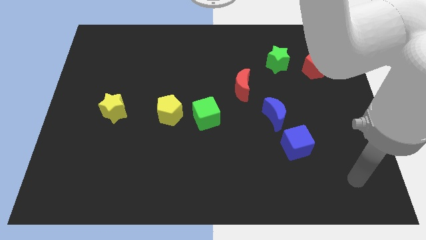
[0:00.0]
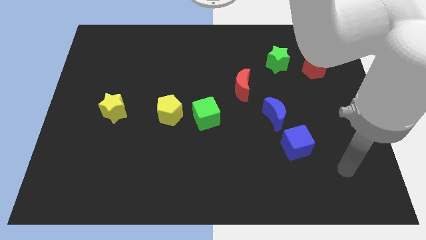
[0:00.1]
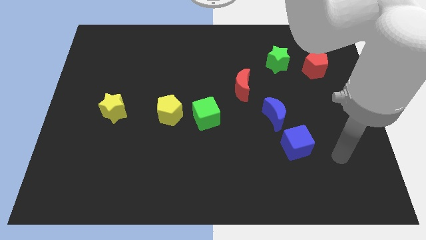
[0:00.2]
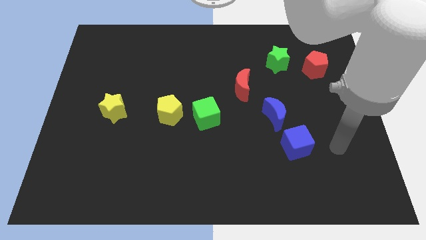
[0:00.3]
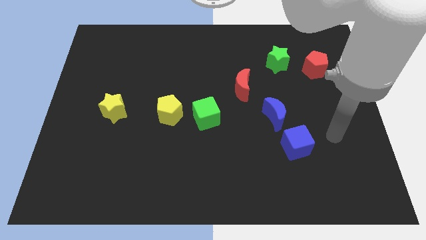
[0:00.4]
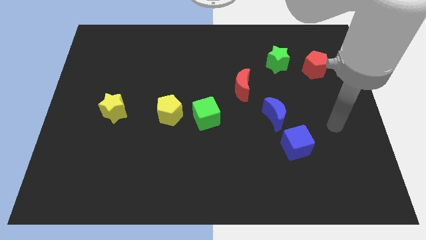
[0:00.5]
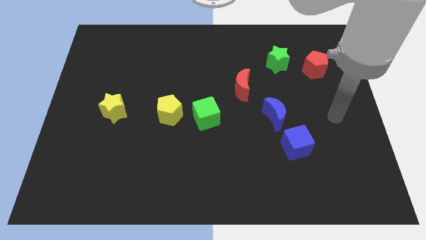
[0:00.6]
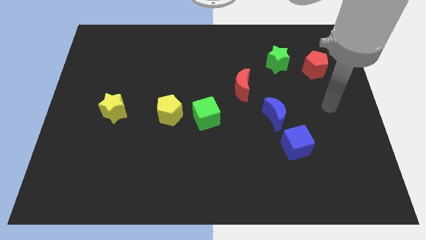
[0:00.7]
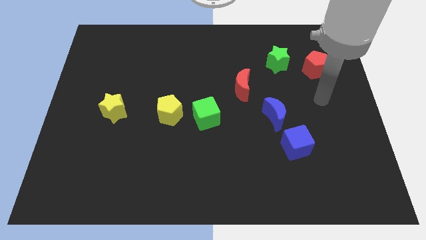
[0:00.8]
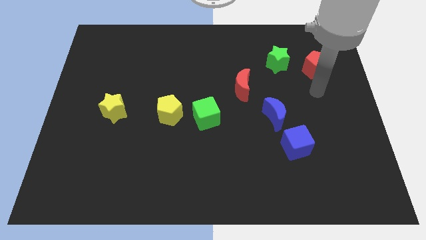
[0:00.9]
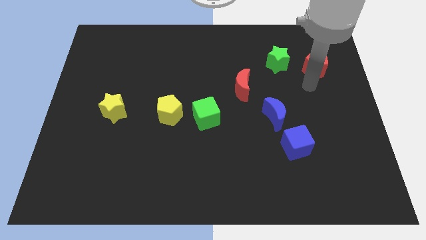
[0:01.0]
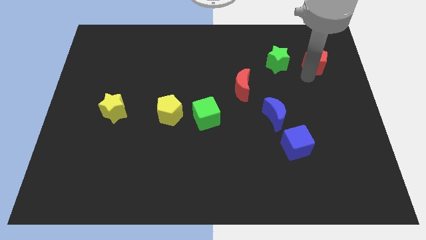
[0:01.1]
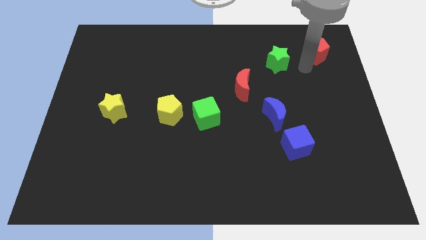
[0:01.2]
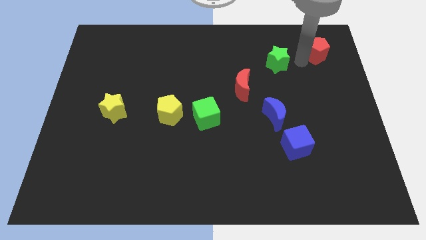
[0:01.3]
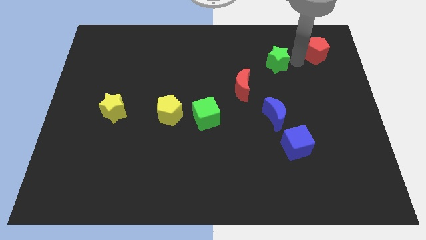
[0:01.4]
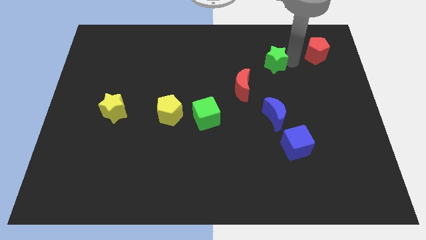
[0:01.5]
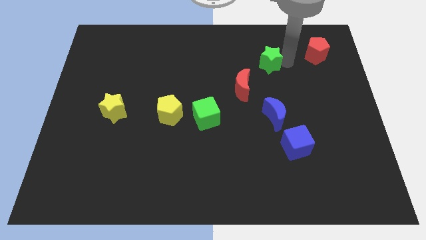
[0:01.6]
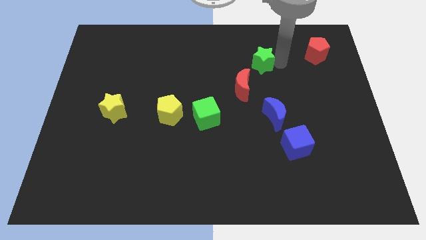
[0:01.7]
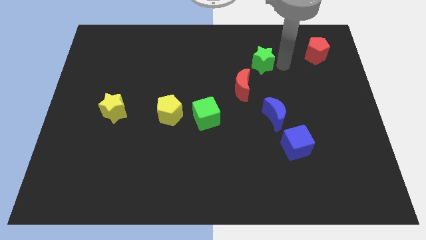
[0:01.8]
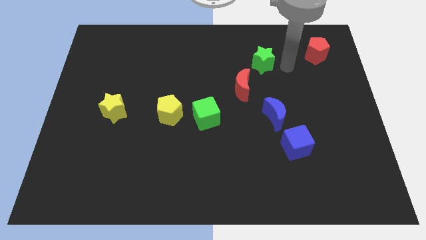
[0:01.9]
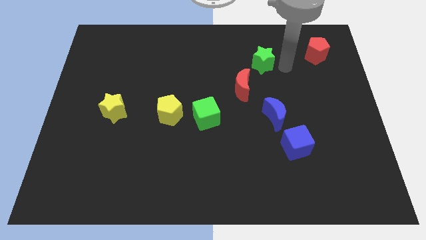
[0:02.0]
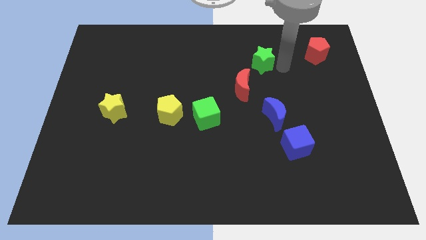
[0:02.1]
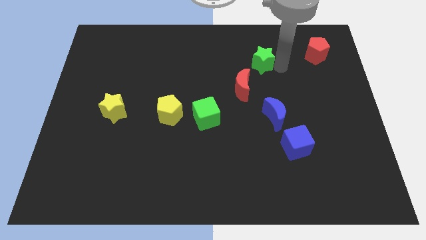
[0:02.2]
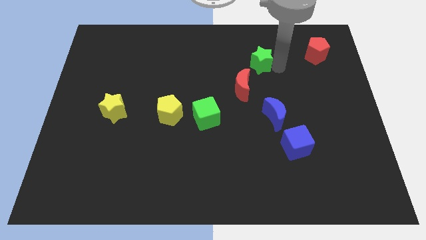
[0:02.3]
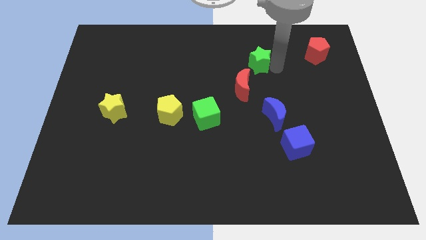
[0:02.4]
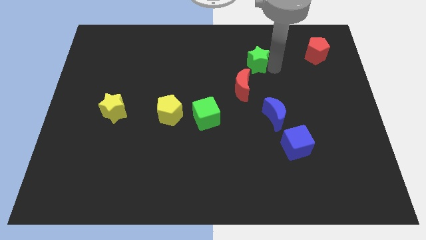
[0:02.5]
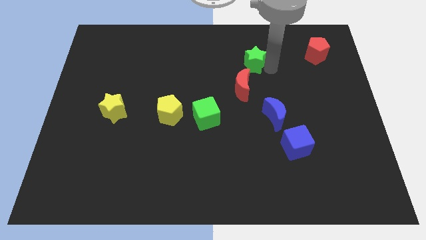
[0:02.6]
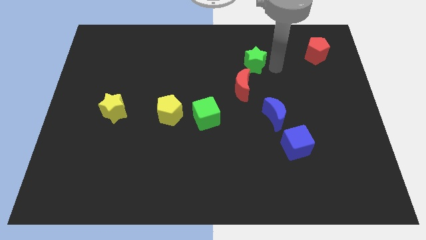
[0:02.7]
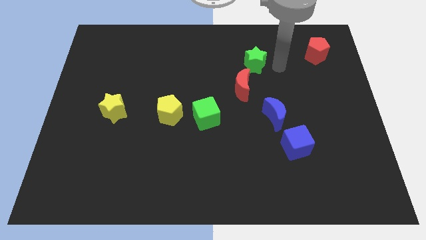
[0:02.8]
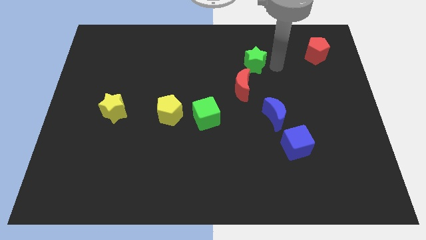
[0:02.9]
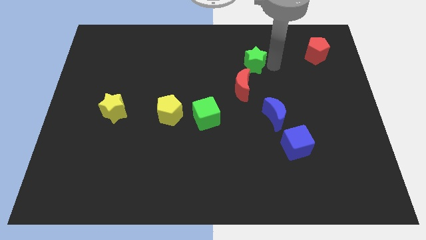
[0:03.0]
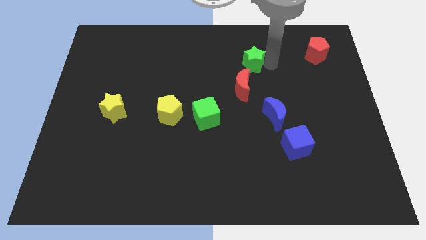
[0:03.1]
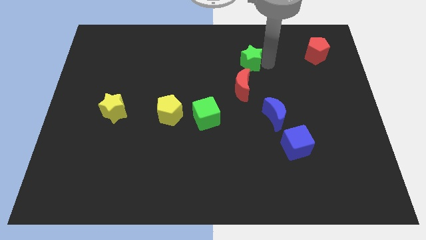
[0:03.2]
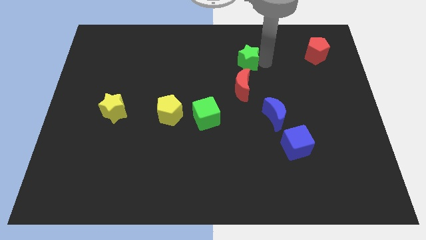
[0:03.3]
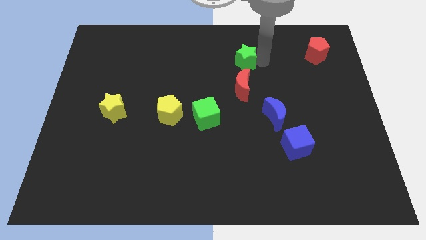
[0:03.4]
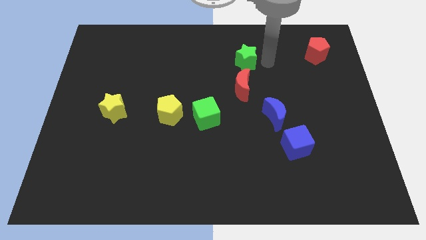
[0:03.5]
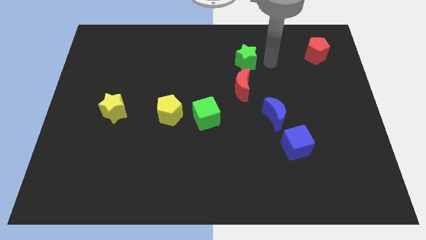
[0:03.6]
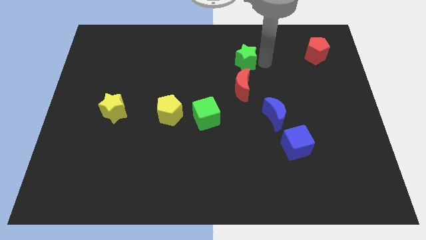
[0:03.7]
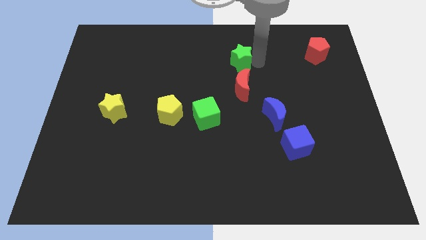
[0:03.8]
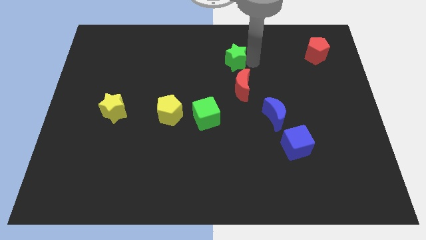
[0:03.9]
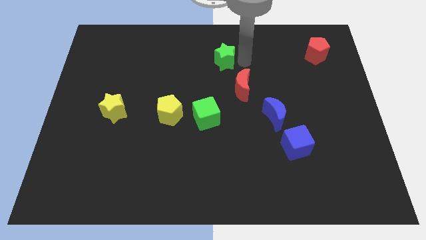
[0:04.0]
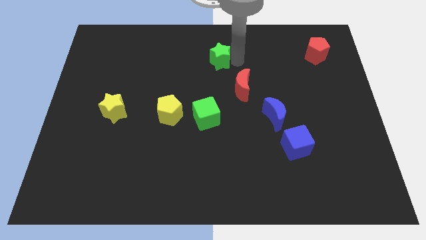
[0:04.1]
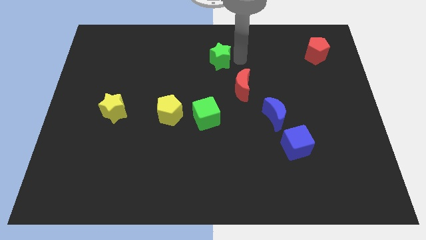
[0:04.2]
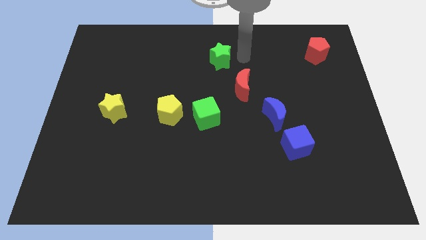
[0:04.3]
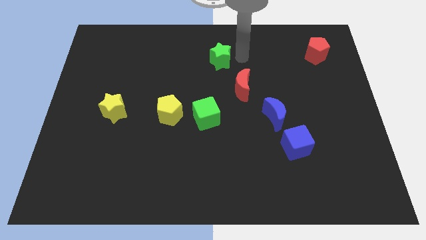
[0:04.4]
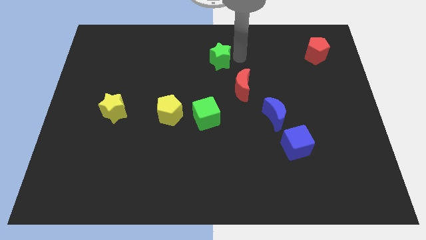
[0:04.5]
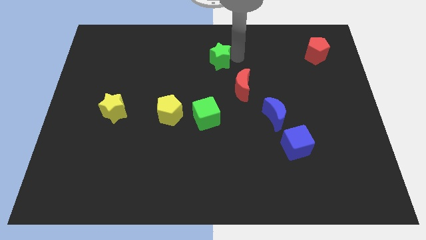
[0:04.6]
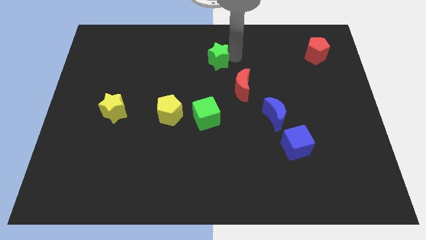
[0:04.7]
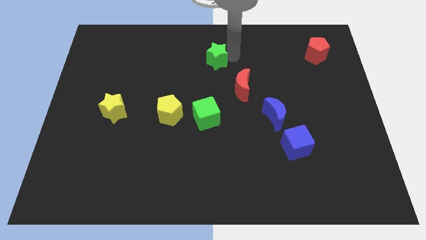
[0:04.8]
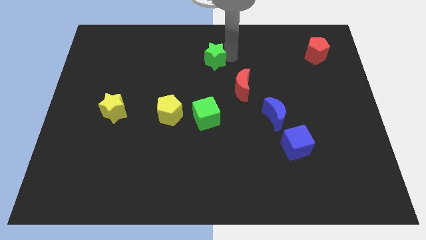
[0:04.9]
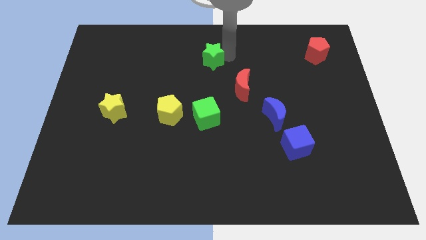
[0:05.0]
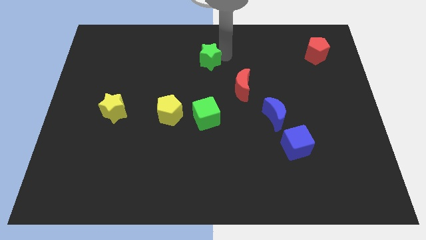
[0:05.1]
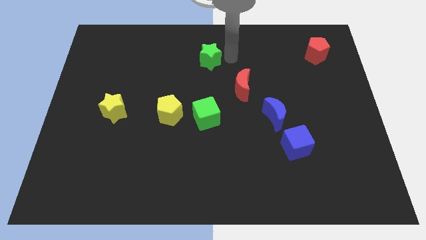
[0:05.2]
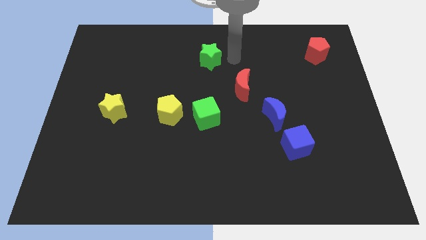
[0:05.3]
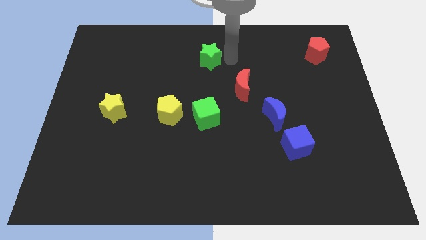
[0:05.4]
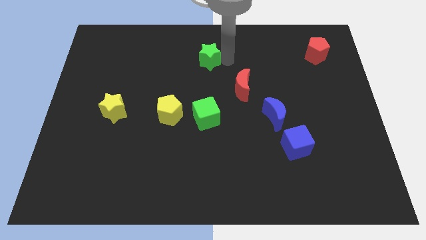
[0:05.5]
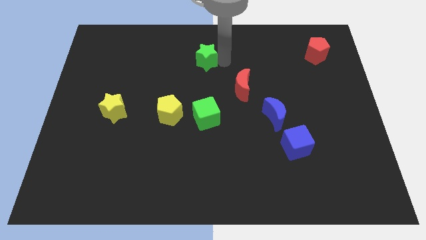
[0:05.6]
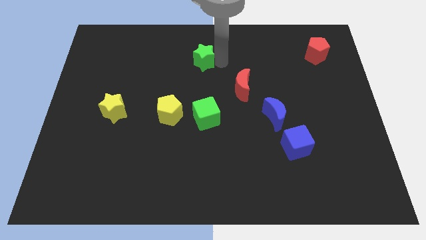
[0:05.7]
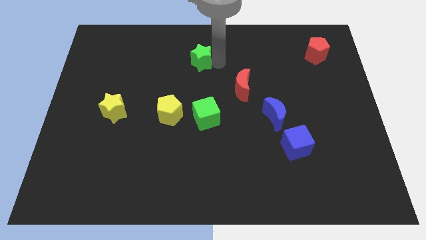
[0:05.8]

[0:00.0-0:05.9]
move the green star left

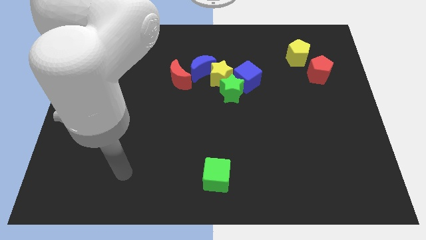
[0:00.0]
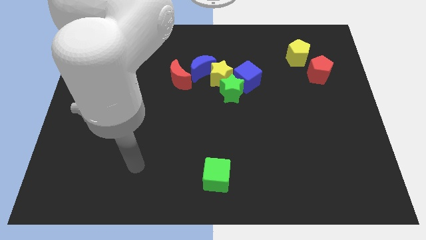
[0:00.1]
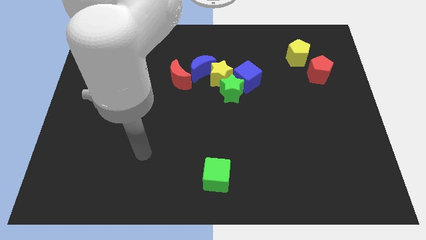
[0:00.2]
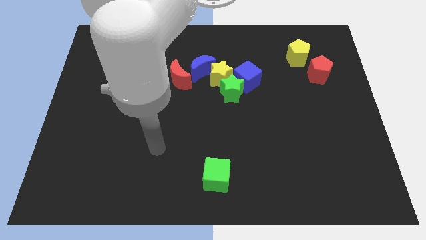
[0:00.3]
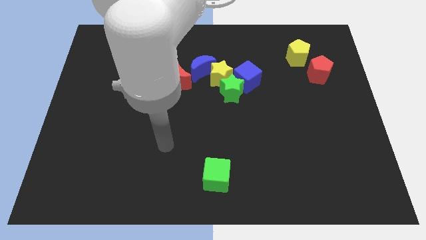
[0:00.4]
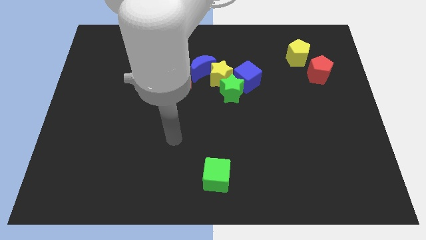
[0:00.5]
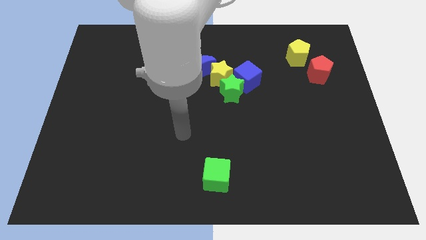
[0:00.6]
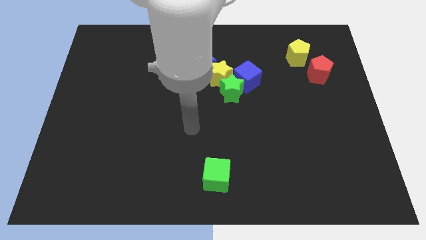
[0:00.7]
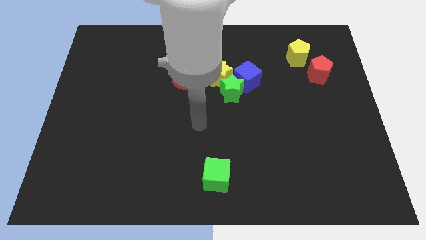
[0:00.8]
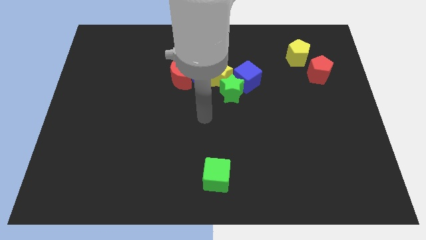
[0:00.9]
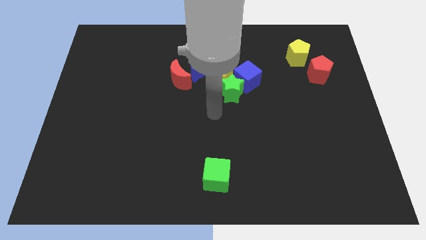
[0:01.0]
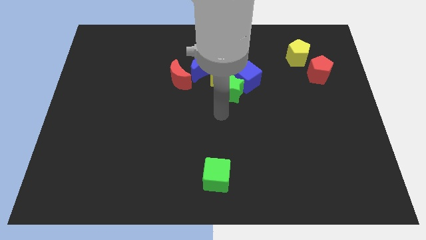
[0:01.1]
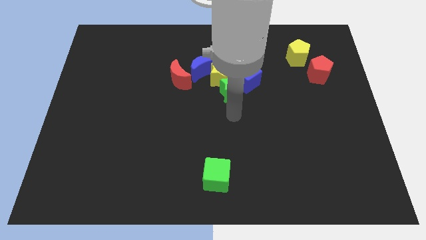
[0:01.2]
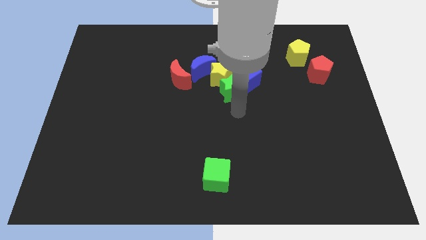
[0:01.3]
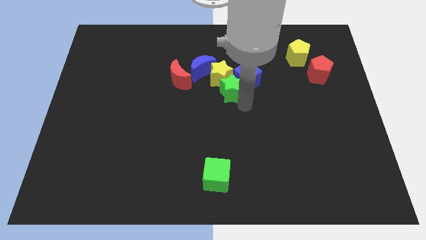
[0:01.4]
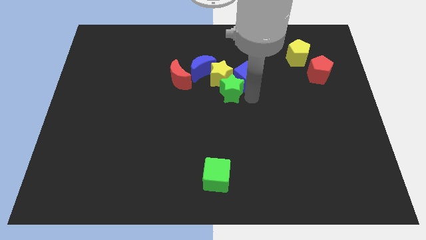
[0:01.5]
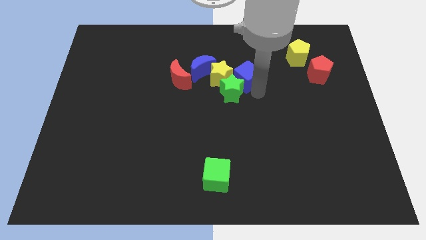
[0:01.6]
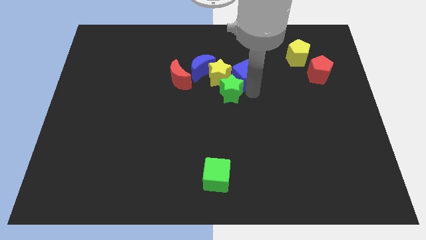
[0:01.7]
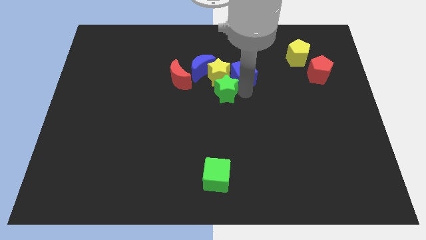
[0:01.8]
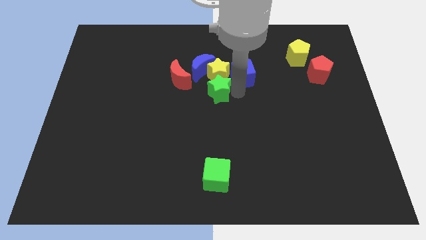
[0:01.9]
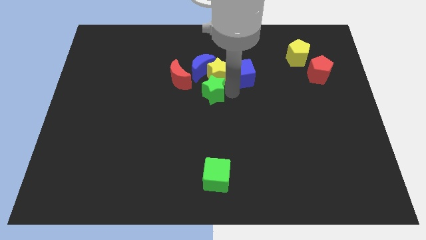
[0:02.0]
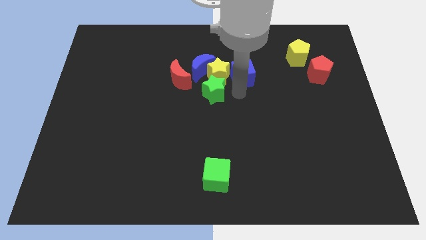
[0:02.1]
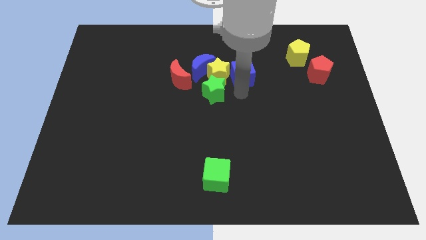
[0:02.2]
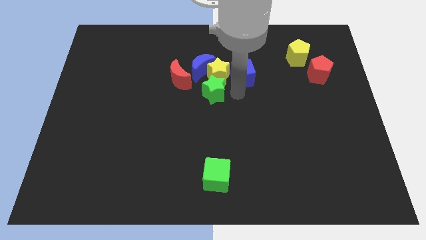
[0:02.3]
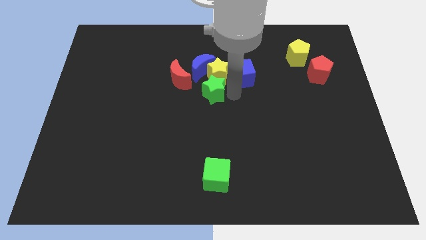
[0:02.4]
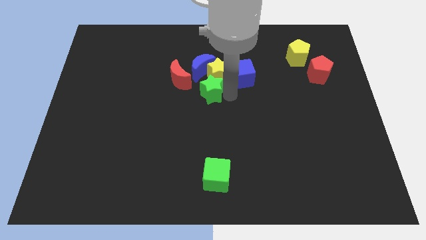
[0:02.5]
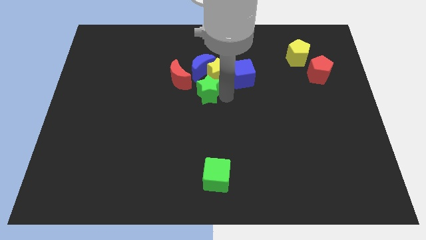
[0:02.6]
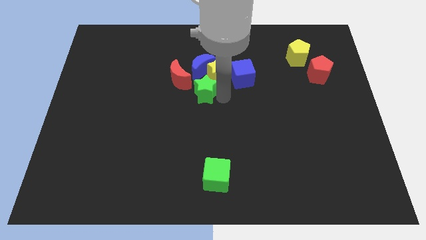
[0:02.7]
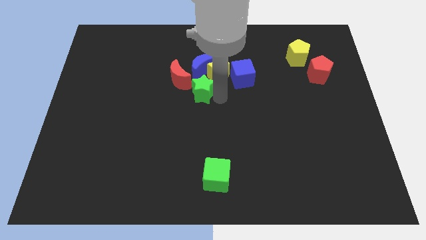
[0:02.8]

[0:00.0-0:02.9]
move the green star left a bit
